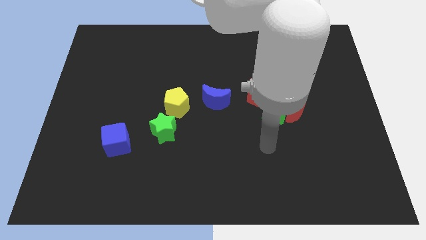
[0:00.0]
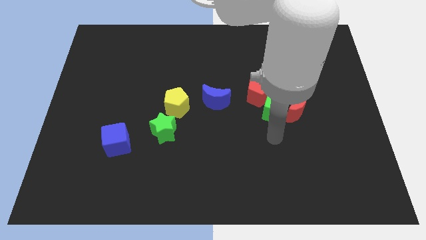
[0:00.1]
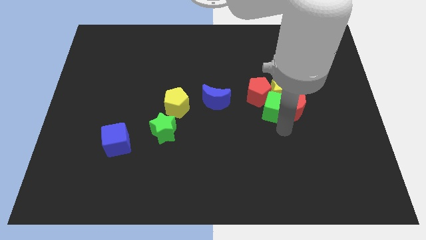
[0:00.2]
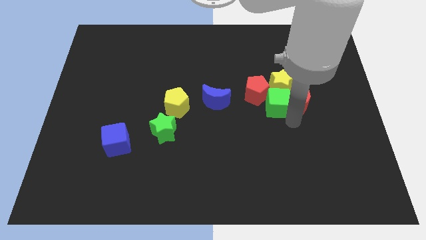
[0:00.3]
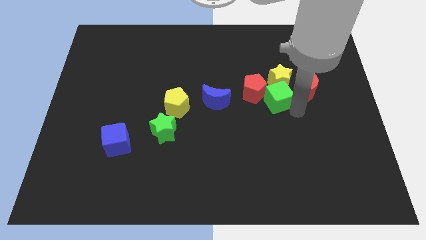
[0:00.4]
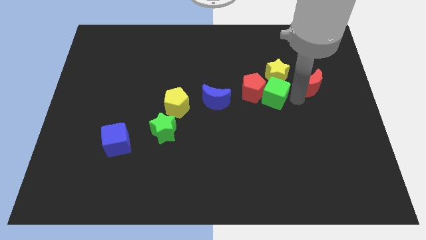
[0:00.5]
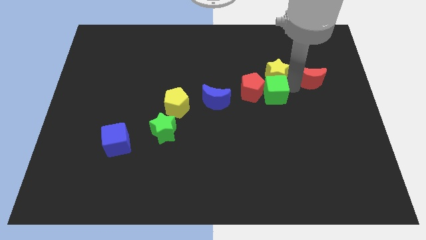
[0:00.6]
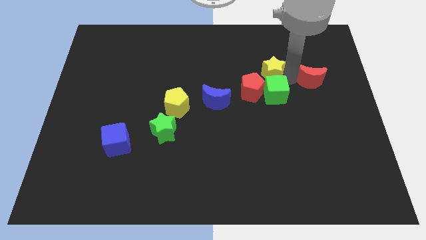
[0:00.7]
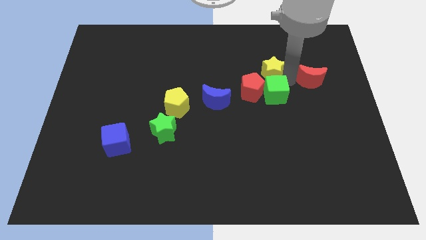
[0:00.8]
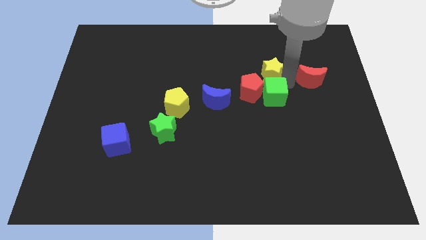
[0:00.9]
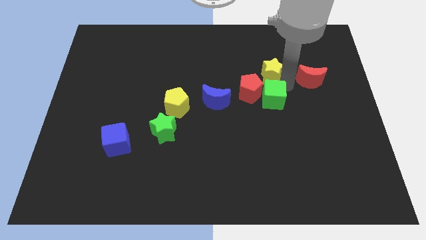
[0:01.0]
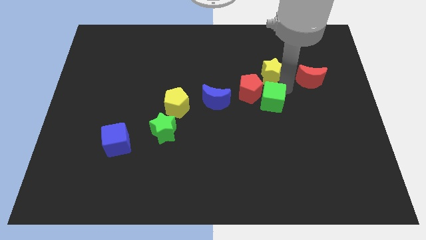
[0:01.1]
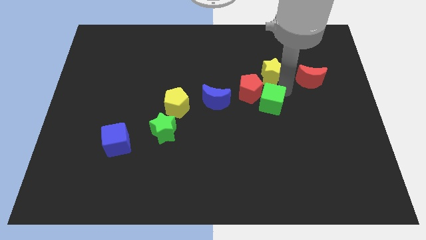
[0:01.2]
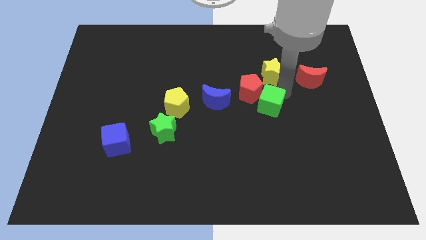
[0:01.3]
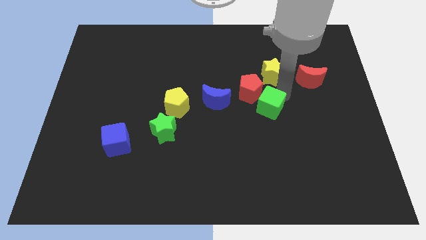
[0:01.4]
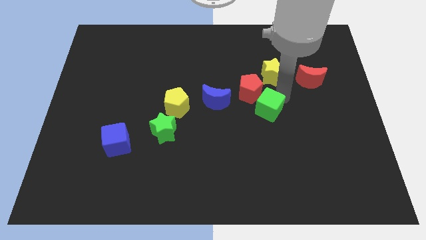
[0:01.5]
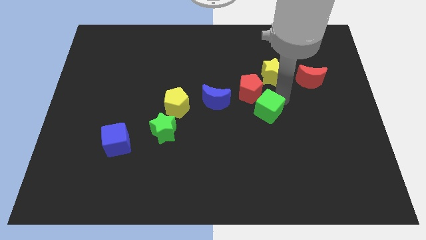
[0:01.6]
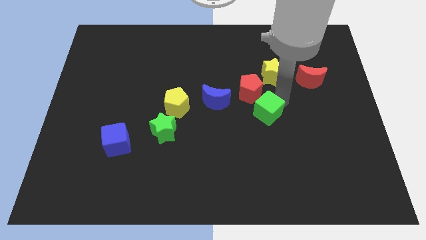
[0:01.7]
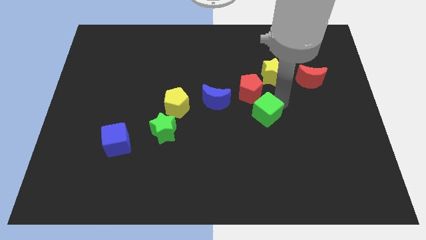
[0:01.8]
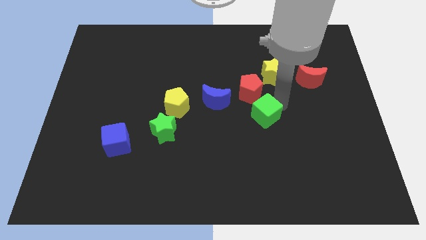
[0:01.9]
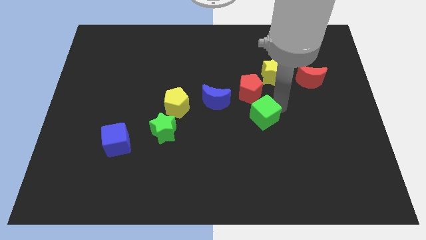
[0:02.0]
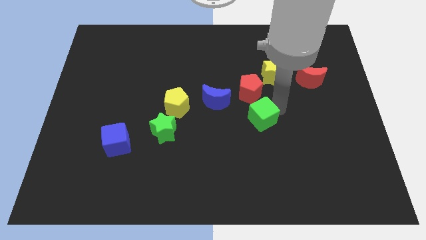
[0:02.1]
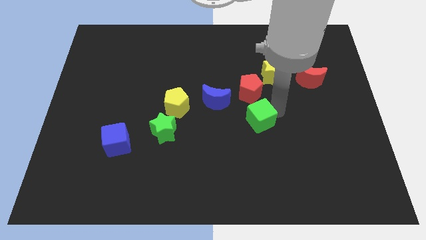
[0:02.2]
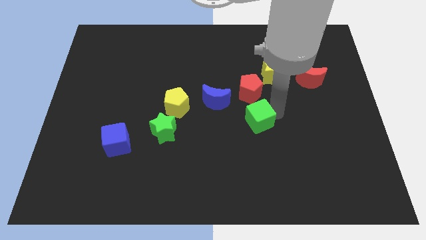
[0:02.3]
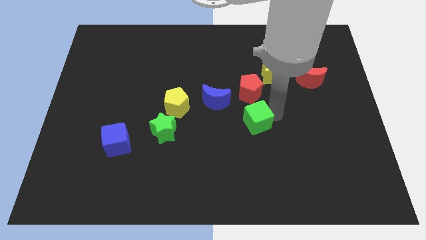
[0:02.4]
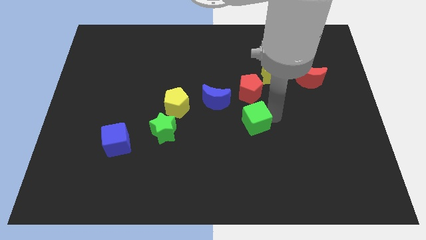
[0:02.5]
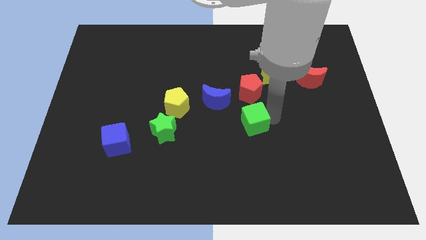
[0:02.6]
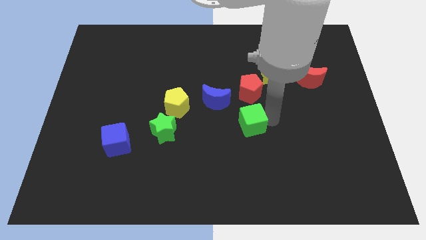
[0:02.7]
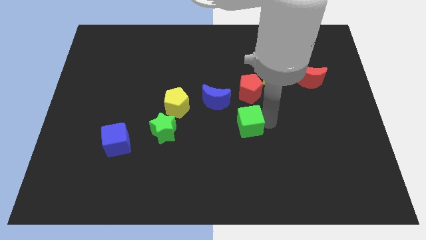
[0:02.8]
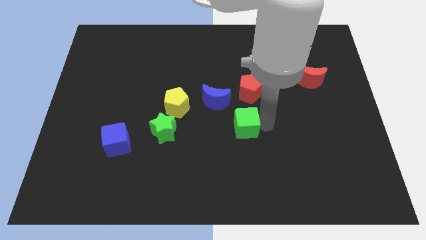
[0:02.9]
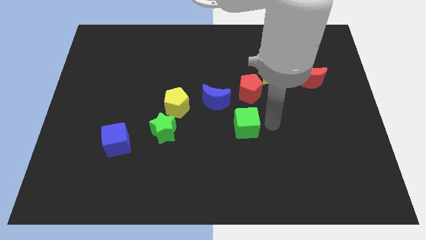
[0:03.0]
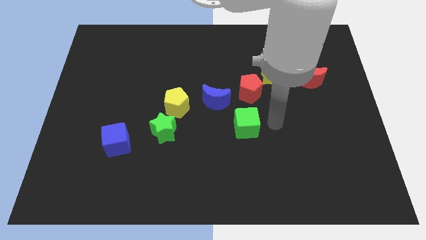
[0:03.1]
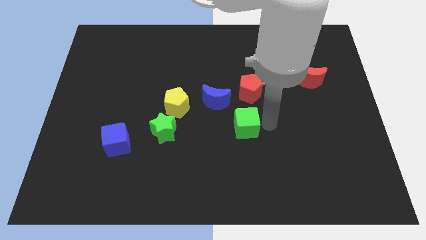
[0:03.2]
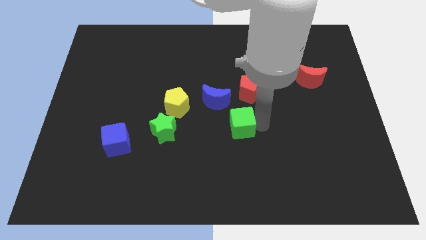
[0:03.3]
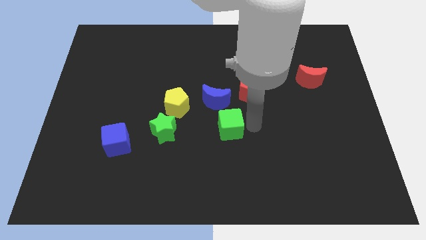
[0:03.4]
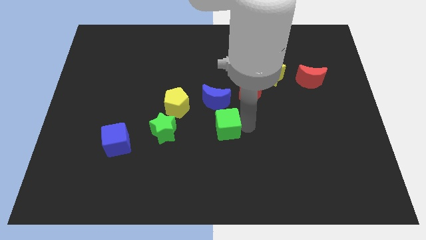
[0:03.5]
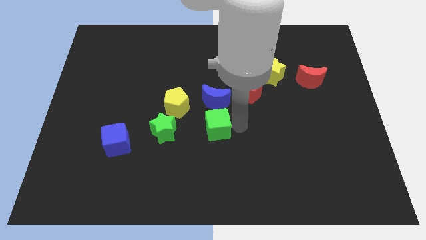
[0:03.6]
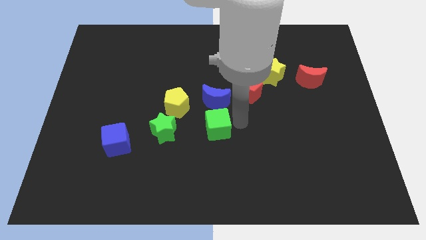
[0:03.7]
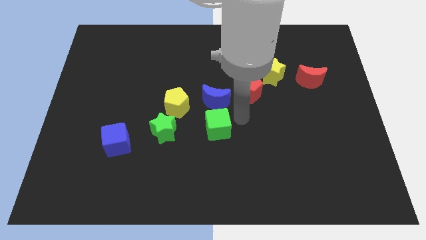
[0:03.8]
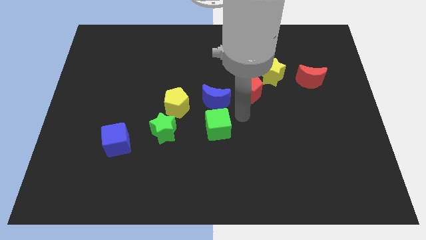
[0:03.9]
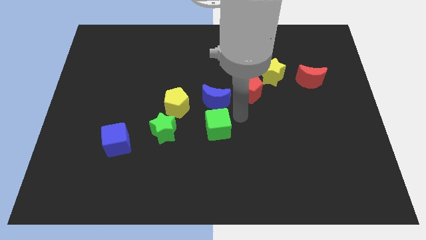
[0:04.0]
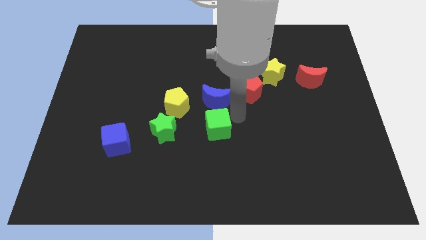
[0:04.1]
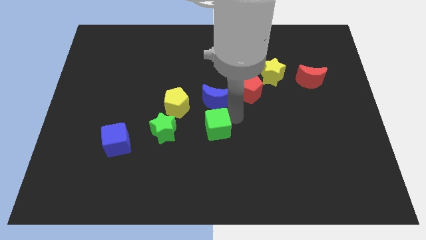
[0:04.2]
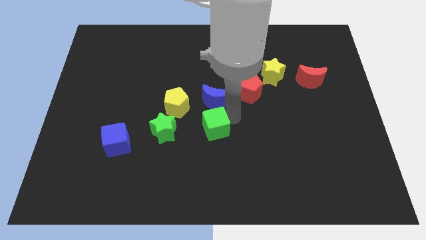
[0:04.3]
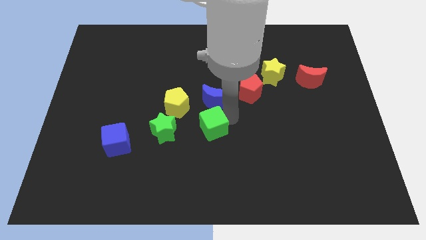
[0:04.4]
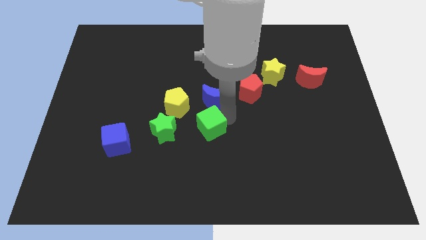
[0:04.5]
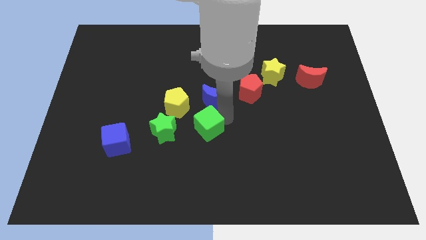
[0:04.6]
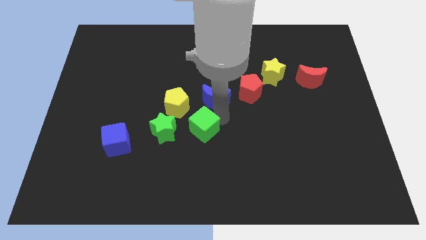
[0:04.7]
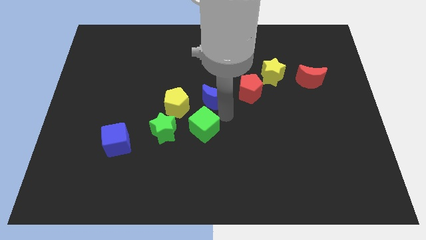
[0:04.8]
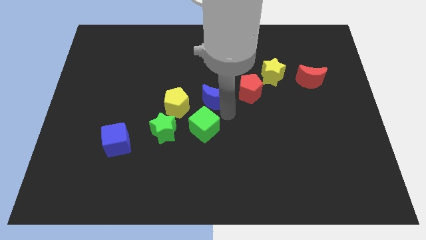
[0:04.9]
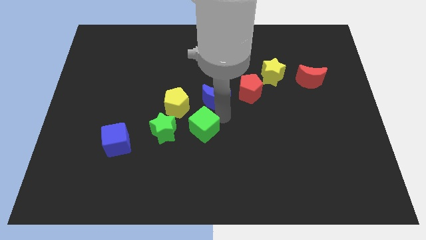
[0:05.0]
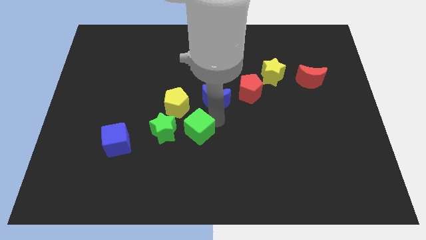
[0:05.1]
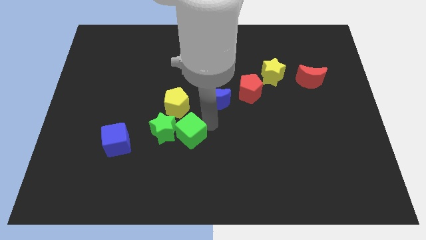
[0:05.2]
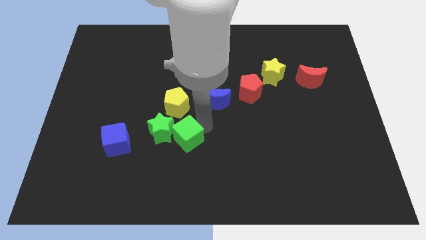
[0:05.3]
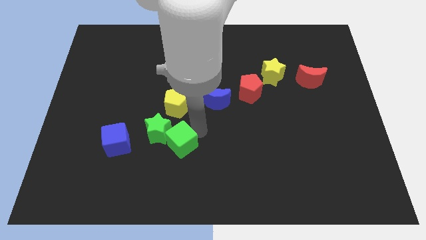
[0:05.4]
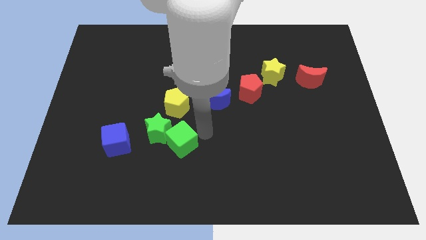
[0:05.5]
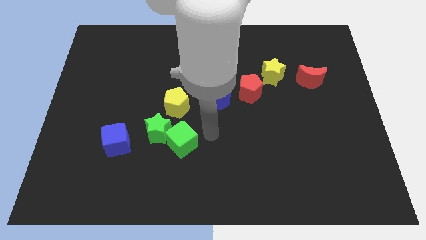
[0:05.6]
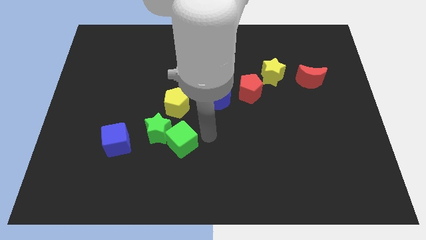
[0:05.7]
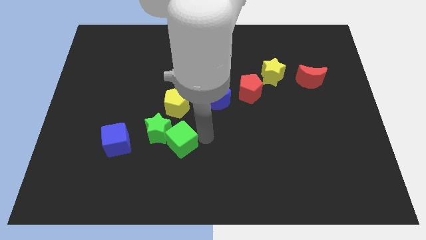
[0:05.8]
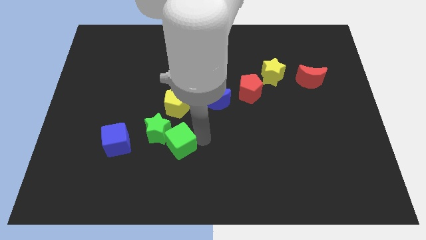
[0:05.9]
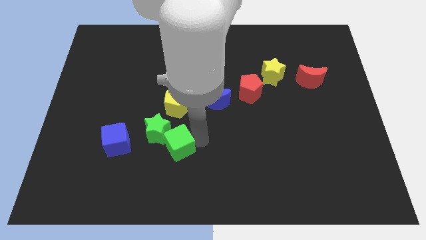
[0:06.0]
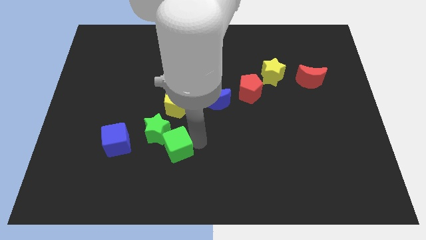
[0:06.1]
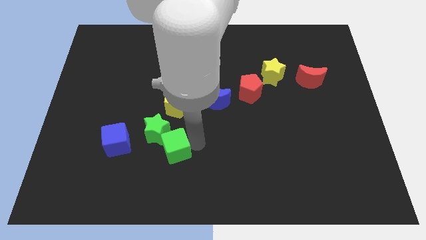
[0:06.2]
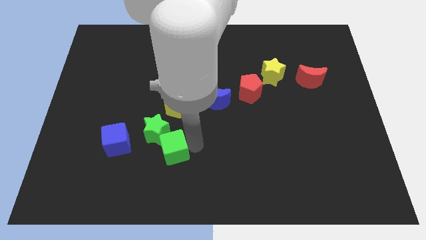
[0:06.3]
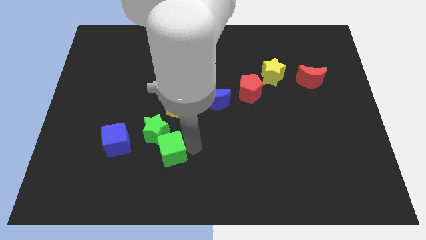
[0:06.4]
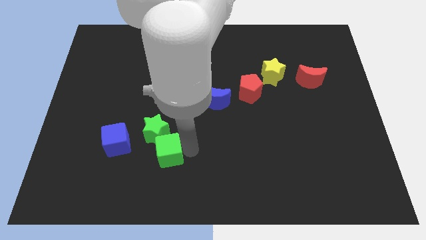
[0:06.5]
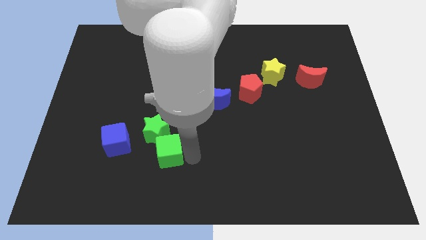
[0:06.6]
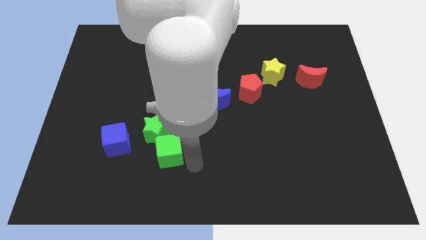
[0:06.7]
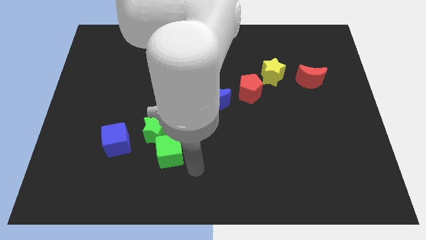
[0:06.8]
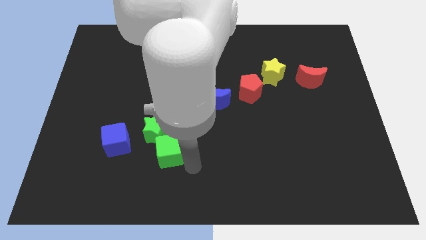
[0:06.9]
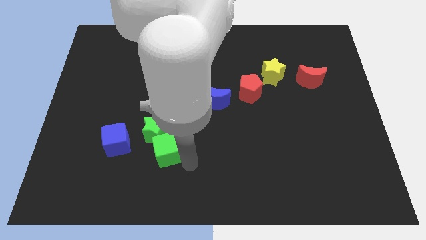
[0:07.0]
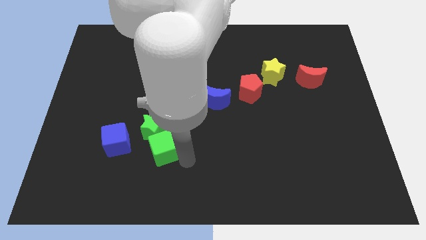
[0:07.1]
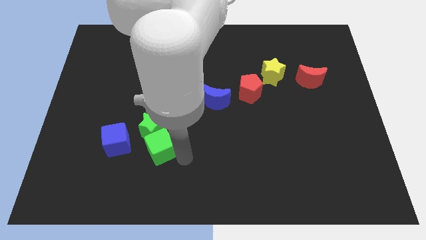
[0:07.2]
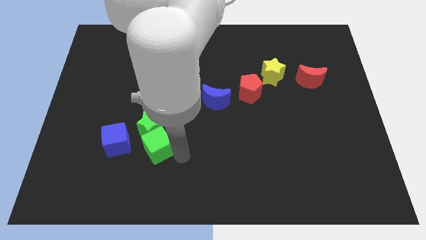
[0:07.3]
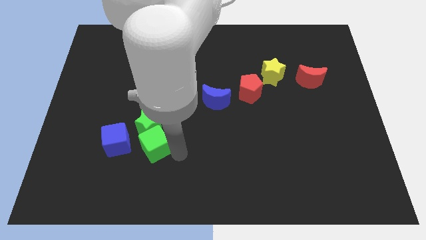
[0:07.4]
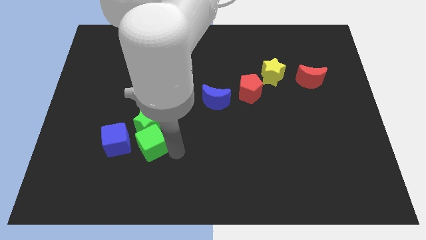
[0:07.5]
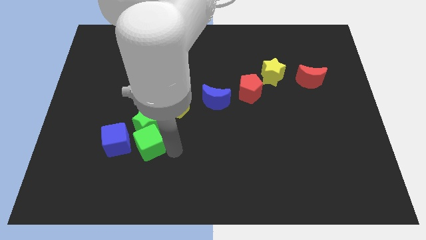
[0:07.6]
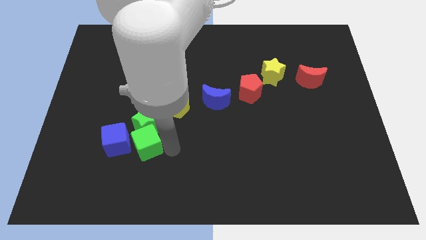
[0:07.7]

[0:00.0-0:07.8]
move the green cube diagonally down and to the left of the yellow pentagon
